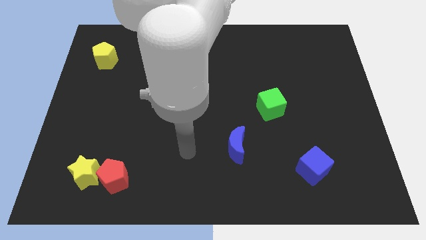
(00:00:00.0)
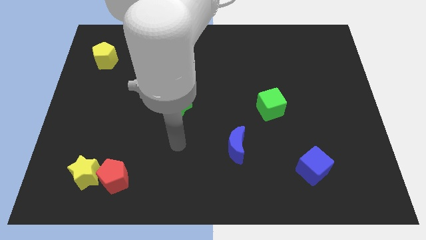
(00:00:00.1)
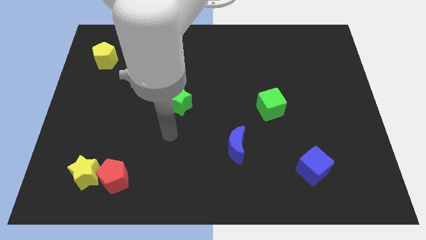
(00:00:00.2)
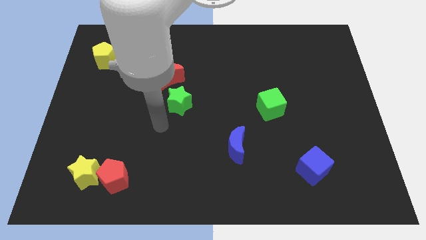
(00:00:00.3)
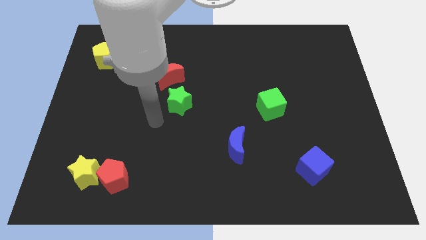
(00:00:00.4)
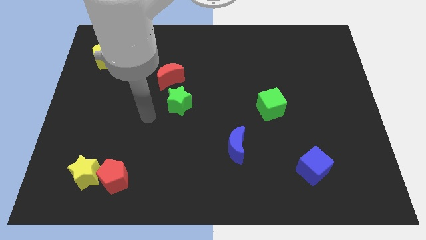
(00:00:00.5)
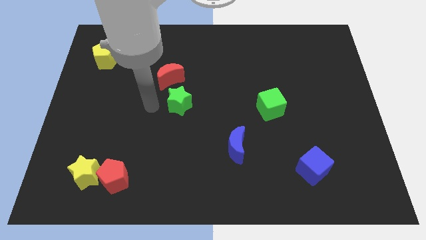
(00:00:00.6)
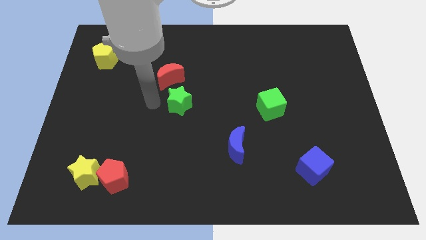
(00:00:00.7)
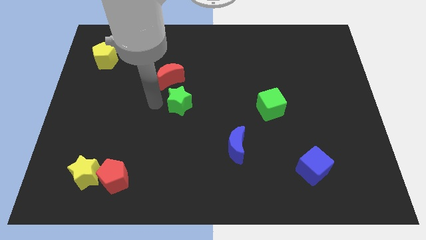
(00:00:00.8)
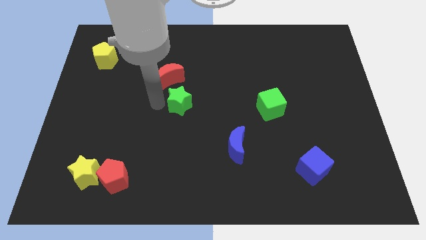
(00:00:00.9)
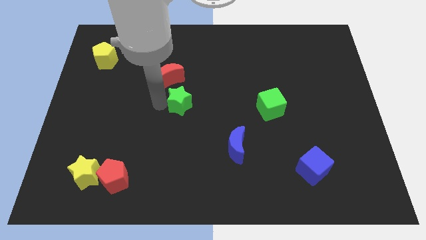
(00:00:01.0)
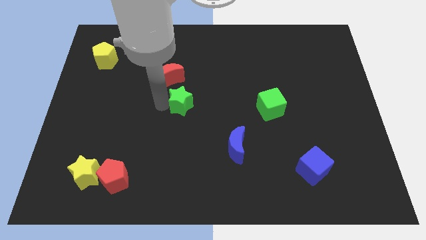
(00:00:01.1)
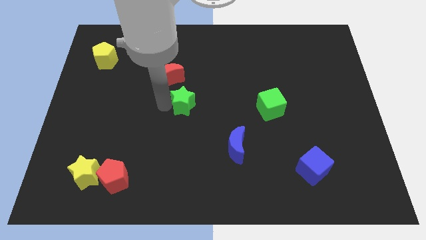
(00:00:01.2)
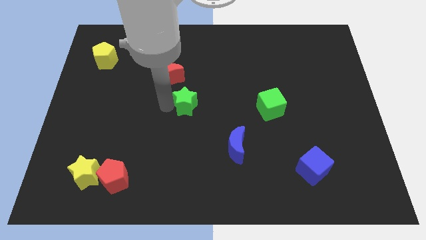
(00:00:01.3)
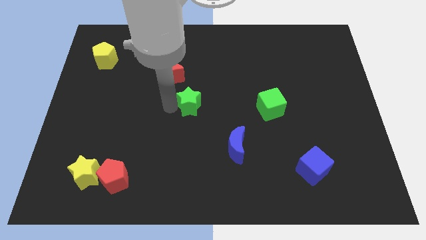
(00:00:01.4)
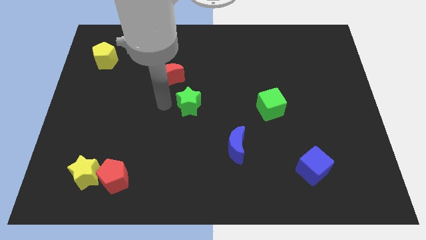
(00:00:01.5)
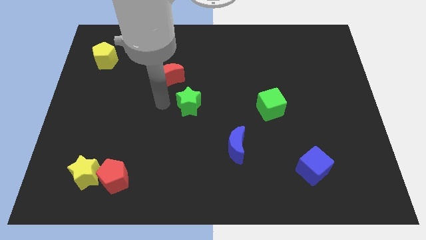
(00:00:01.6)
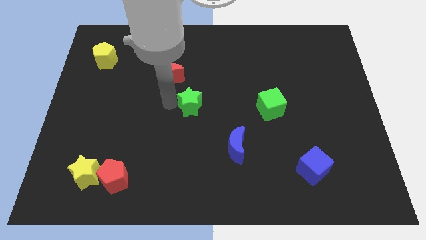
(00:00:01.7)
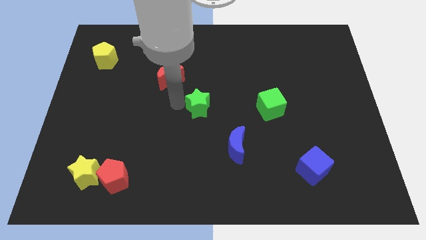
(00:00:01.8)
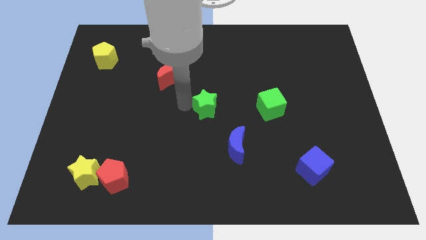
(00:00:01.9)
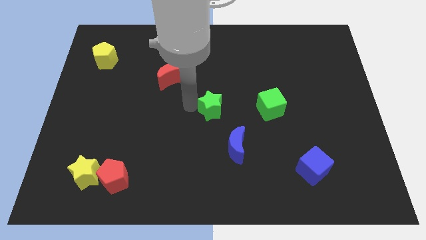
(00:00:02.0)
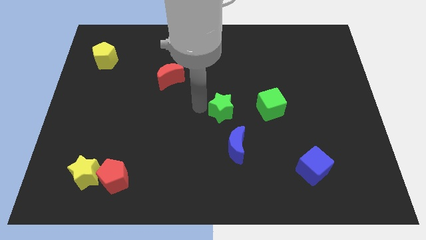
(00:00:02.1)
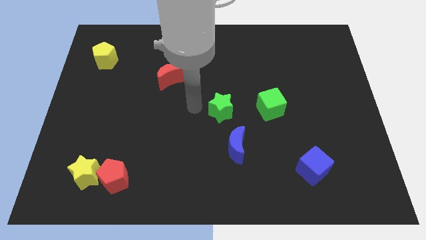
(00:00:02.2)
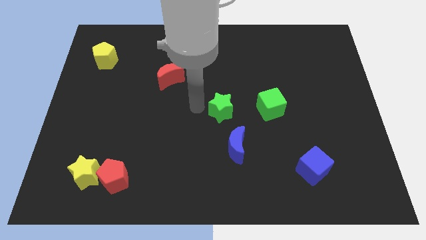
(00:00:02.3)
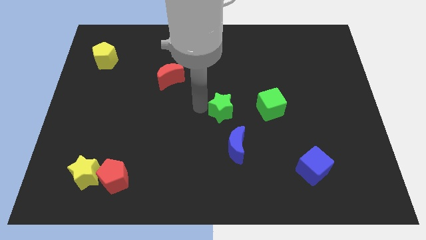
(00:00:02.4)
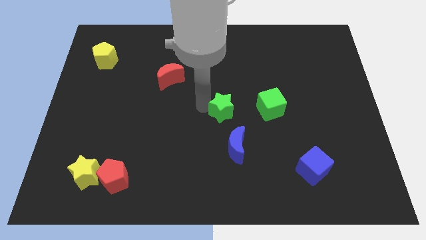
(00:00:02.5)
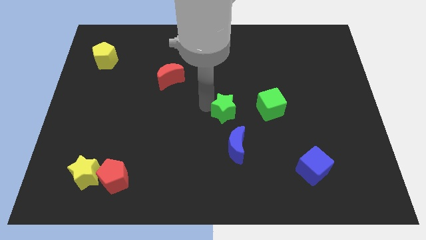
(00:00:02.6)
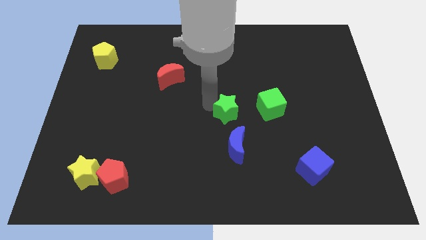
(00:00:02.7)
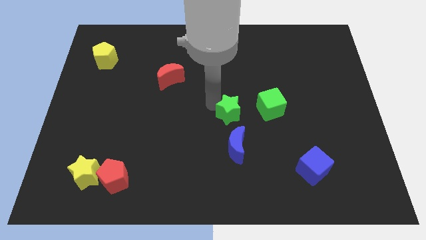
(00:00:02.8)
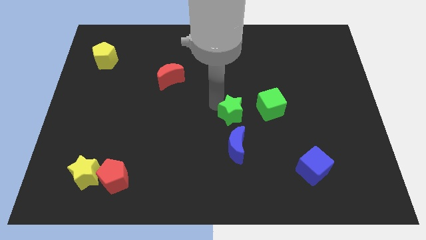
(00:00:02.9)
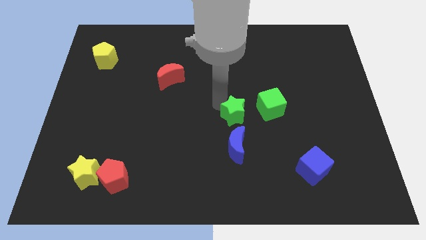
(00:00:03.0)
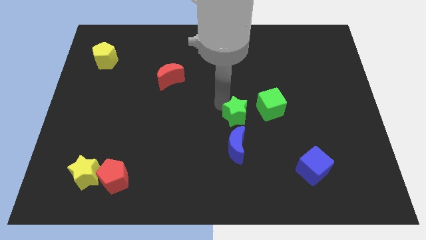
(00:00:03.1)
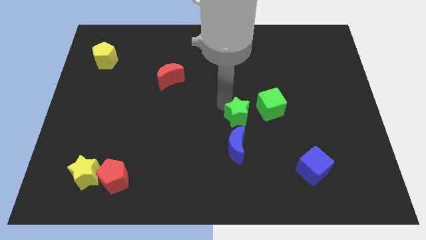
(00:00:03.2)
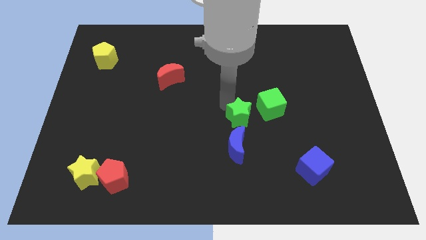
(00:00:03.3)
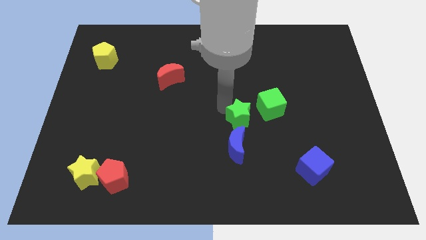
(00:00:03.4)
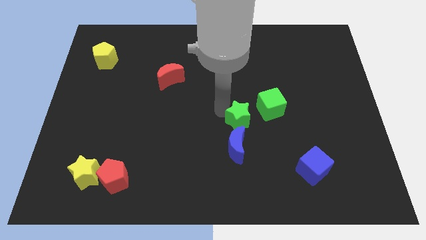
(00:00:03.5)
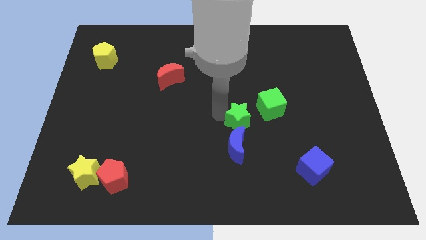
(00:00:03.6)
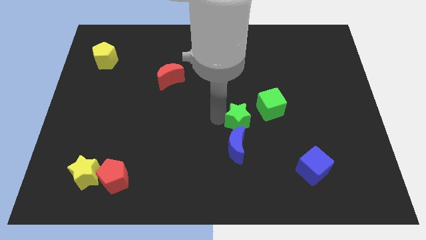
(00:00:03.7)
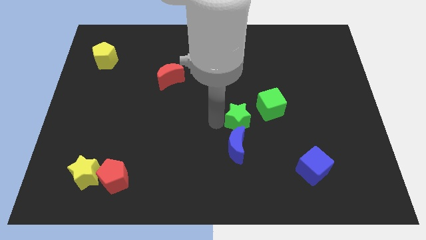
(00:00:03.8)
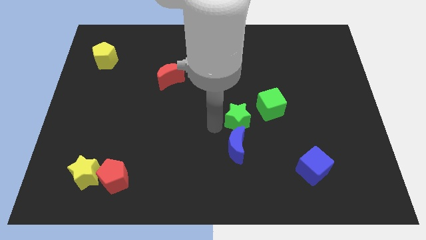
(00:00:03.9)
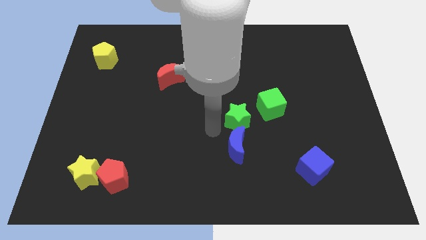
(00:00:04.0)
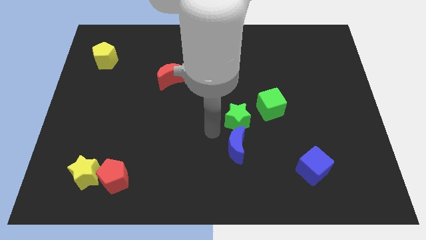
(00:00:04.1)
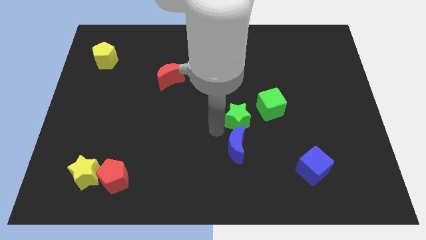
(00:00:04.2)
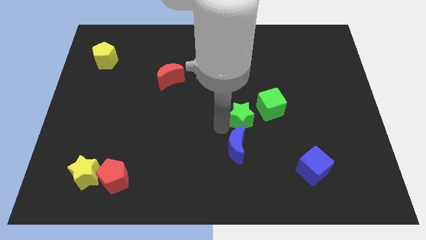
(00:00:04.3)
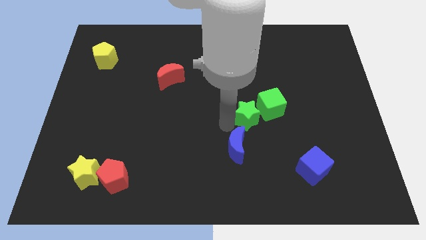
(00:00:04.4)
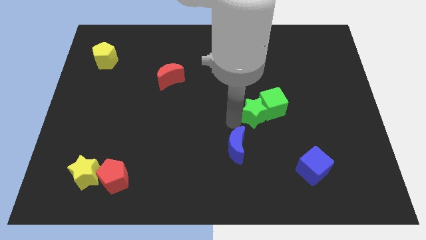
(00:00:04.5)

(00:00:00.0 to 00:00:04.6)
slide the green star close to the green cube

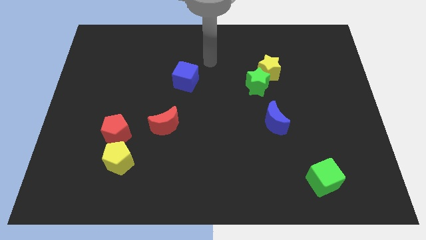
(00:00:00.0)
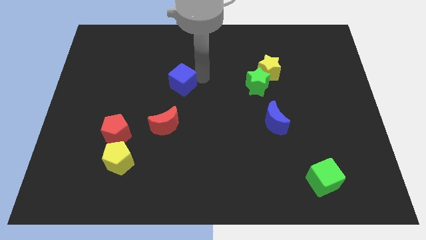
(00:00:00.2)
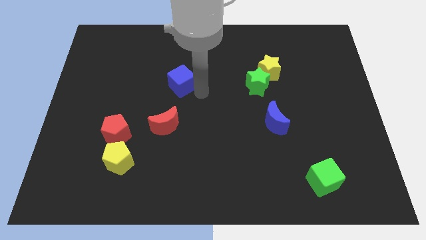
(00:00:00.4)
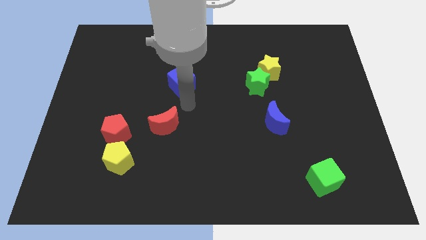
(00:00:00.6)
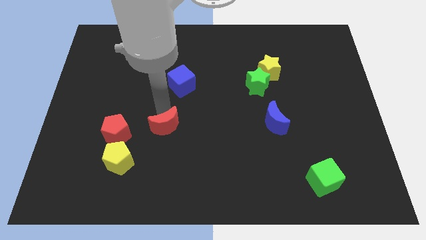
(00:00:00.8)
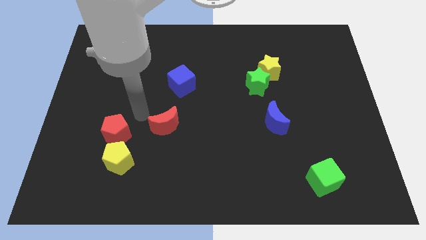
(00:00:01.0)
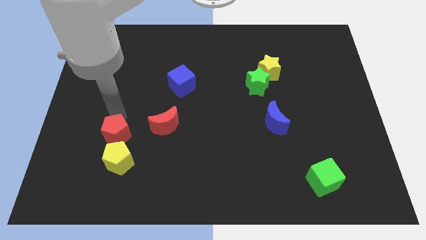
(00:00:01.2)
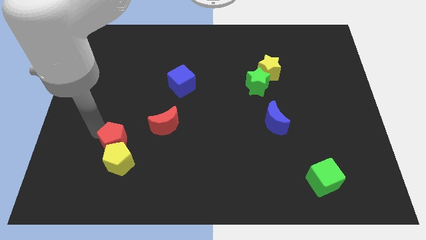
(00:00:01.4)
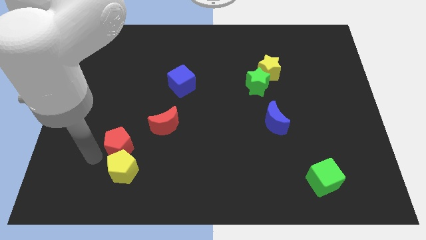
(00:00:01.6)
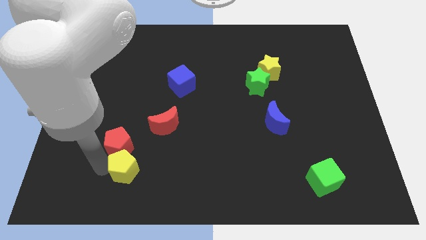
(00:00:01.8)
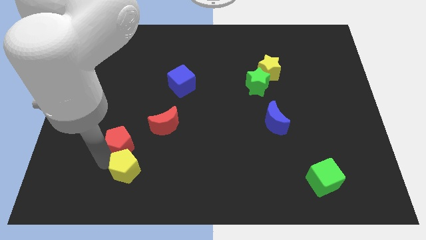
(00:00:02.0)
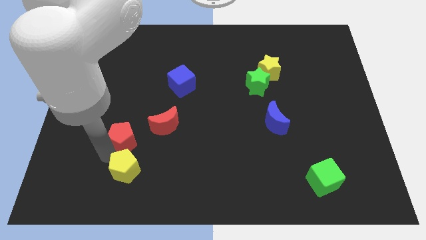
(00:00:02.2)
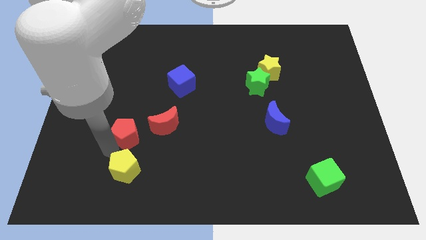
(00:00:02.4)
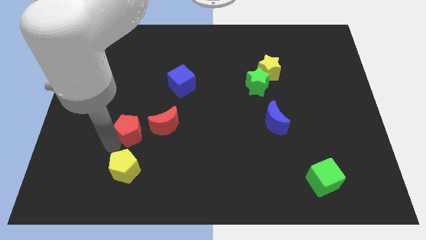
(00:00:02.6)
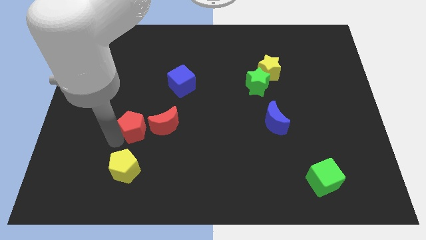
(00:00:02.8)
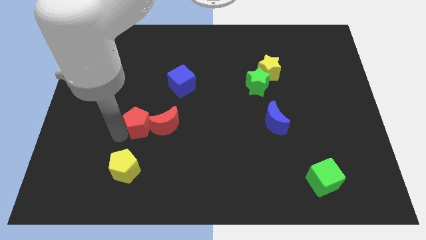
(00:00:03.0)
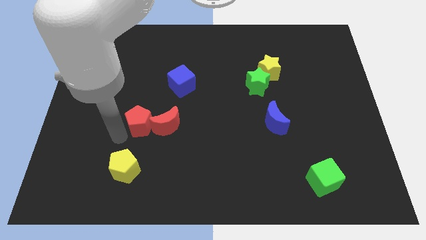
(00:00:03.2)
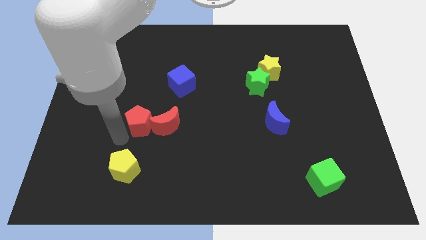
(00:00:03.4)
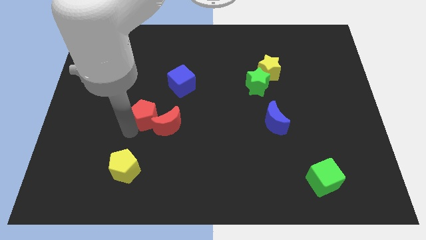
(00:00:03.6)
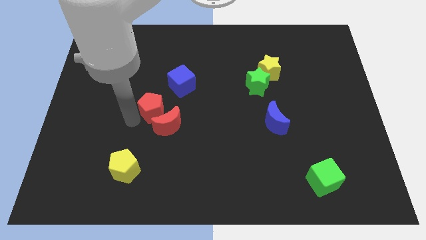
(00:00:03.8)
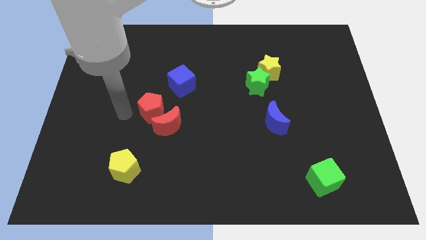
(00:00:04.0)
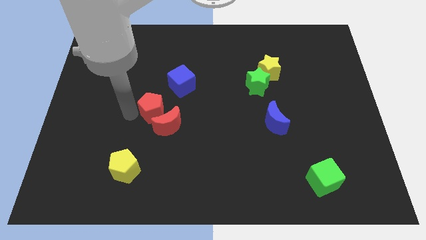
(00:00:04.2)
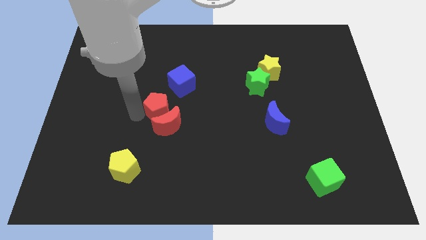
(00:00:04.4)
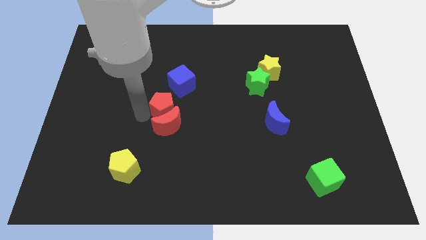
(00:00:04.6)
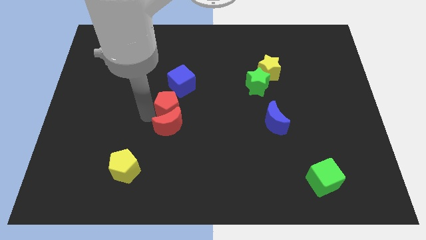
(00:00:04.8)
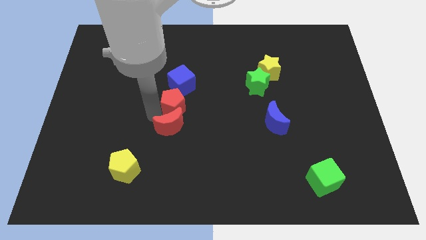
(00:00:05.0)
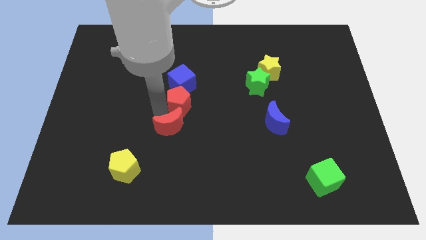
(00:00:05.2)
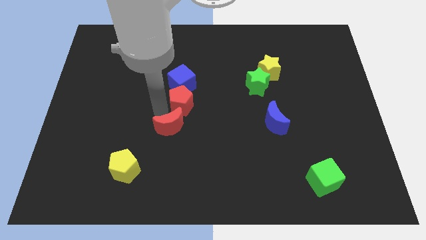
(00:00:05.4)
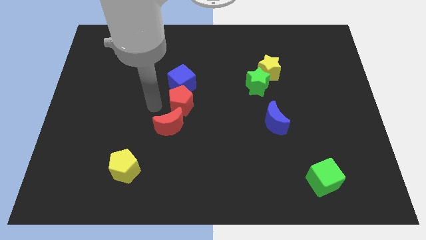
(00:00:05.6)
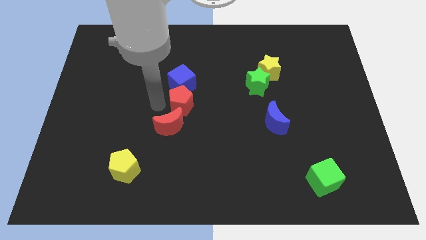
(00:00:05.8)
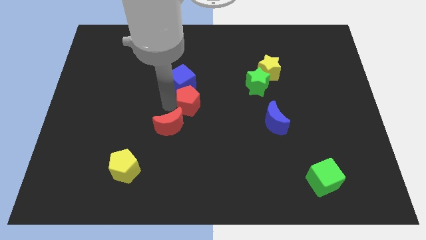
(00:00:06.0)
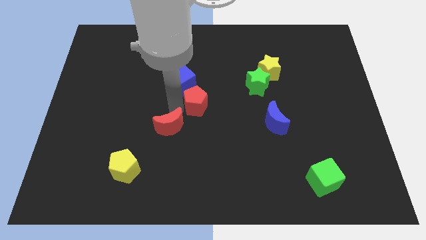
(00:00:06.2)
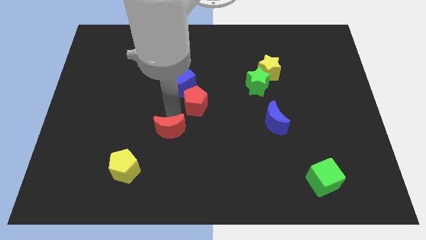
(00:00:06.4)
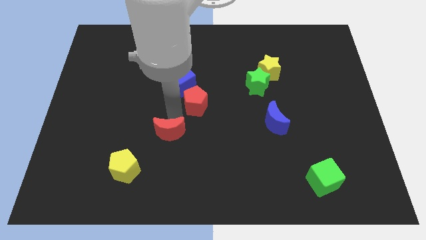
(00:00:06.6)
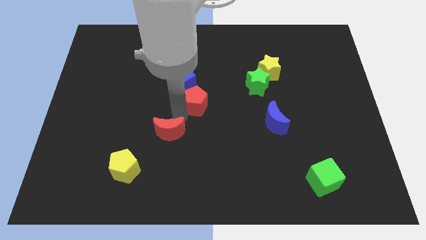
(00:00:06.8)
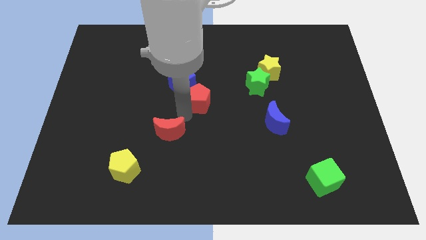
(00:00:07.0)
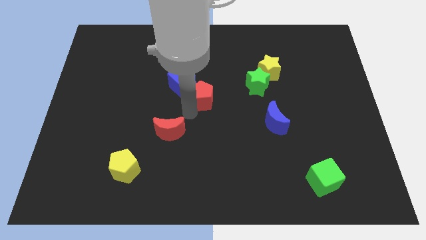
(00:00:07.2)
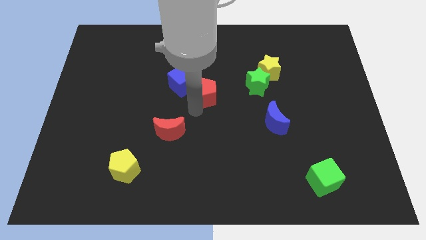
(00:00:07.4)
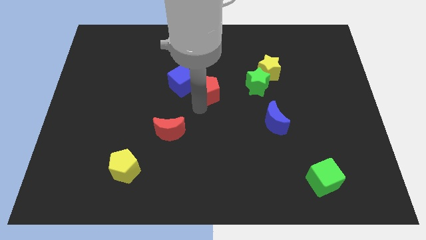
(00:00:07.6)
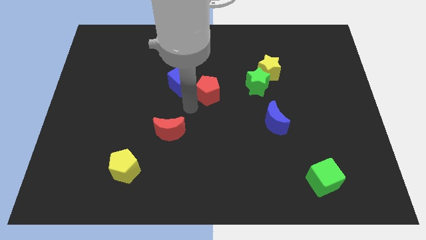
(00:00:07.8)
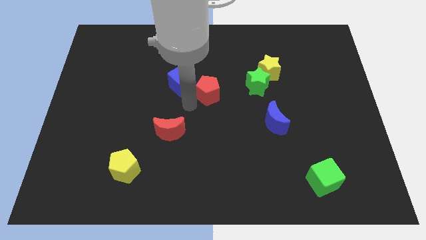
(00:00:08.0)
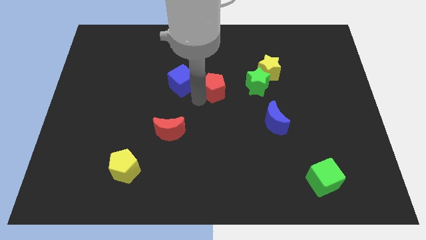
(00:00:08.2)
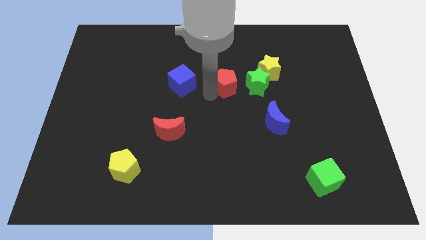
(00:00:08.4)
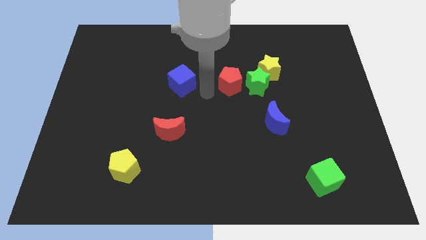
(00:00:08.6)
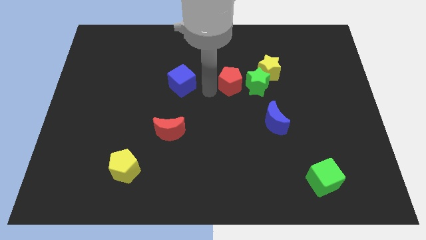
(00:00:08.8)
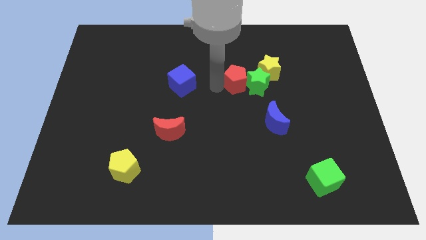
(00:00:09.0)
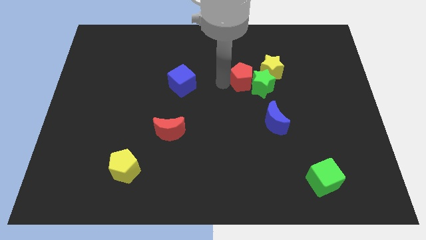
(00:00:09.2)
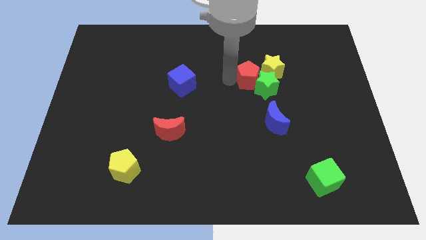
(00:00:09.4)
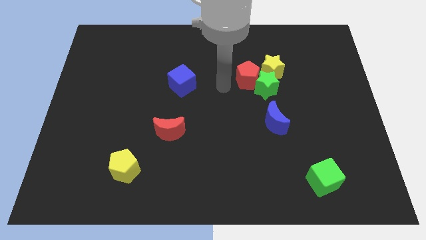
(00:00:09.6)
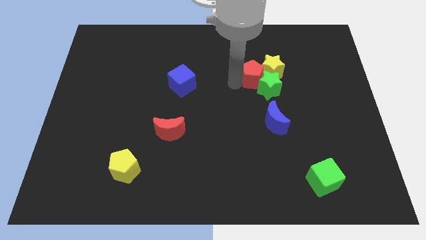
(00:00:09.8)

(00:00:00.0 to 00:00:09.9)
slide the red pentagon close to the yellow star
